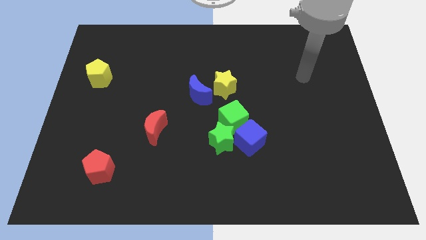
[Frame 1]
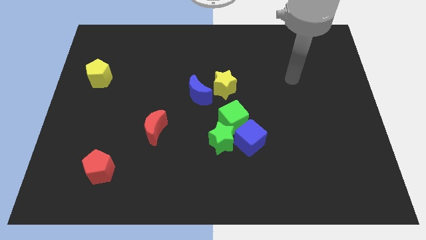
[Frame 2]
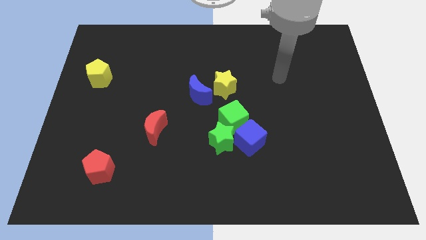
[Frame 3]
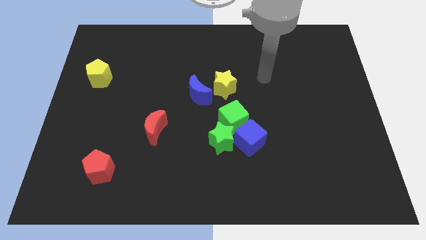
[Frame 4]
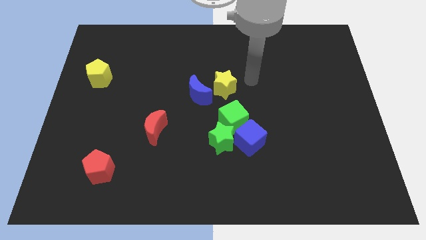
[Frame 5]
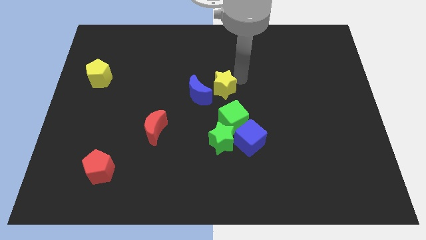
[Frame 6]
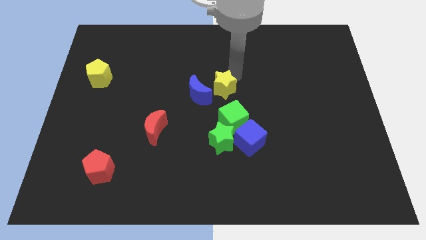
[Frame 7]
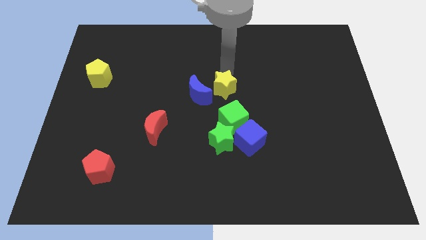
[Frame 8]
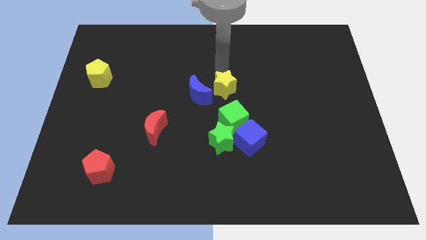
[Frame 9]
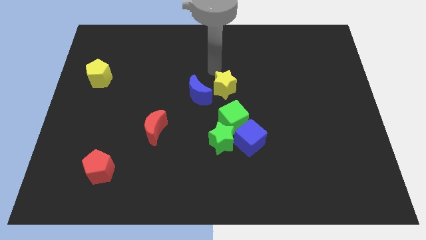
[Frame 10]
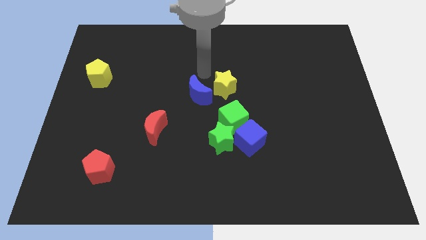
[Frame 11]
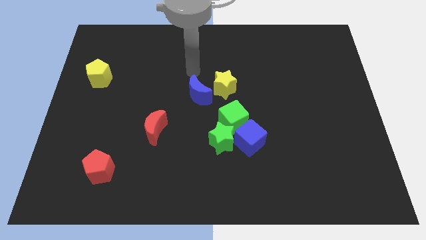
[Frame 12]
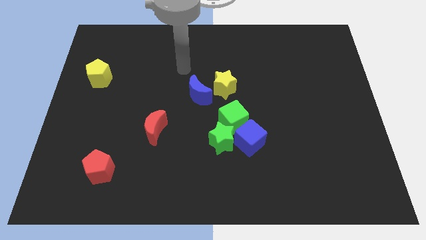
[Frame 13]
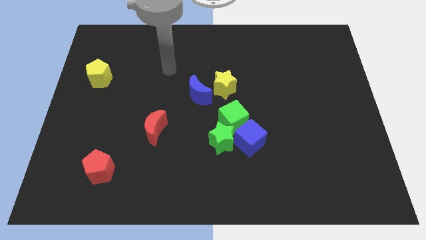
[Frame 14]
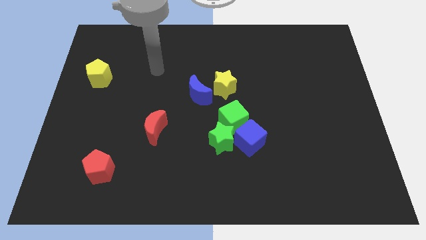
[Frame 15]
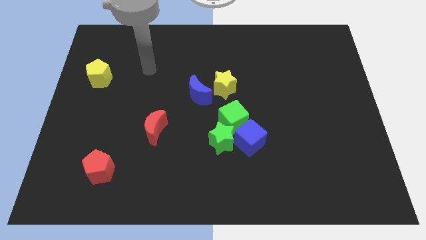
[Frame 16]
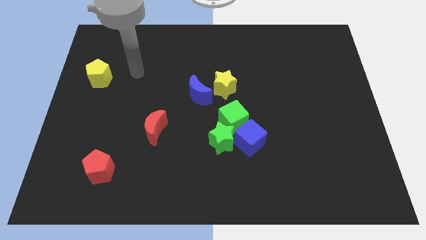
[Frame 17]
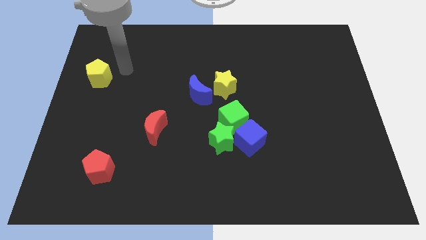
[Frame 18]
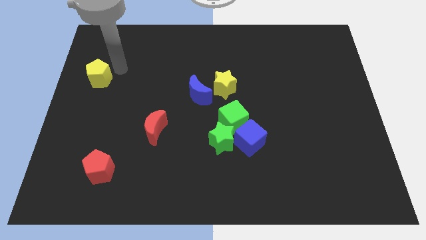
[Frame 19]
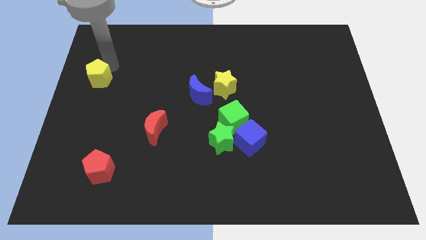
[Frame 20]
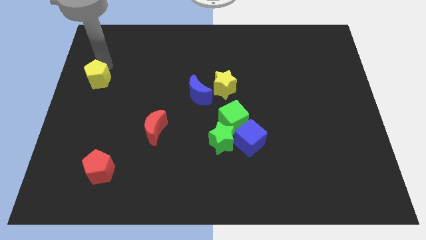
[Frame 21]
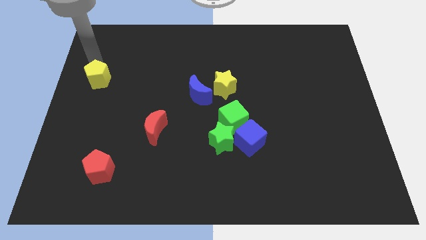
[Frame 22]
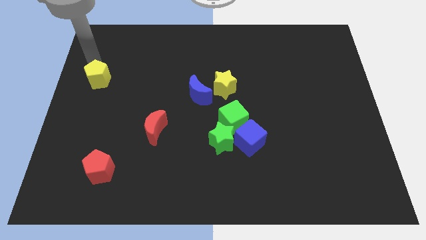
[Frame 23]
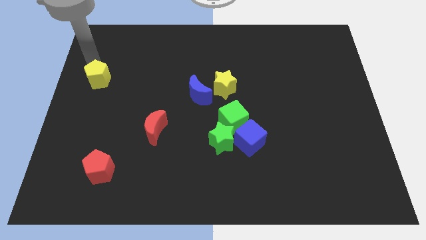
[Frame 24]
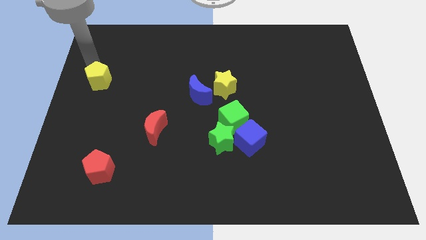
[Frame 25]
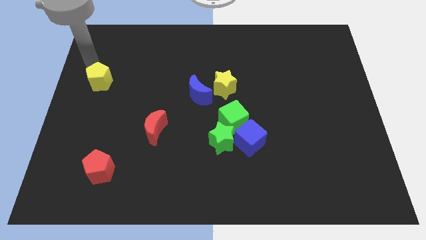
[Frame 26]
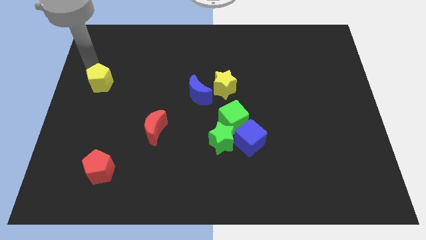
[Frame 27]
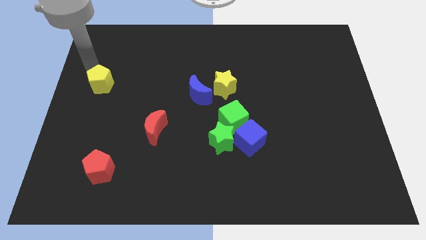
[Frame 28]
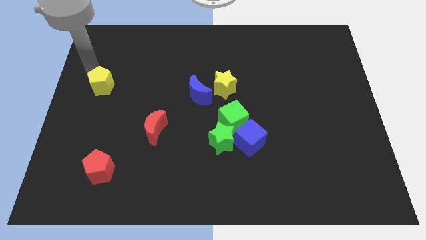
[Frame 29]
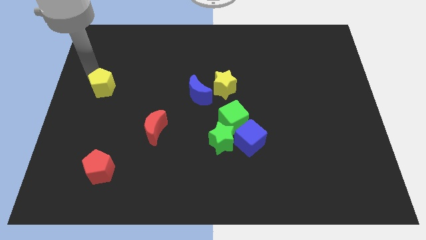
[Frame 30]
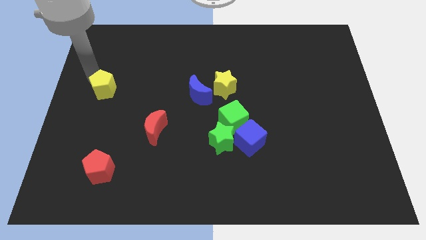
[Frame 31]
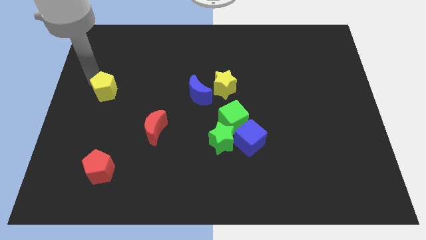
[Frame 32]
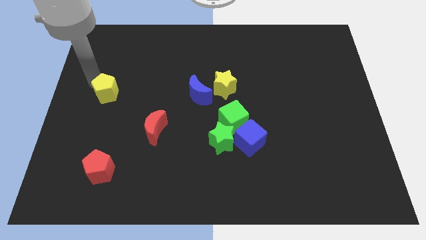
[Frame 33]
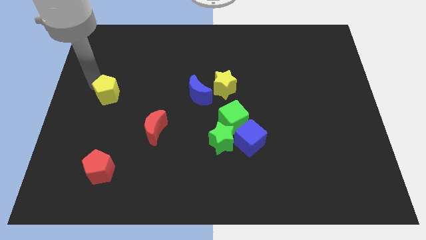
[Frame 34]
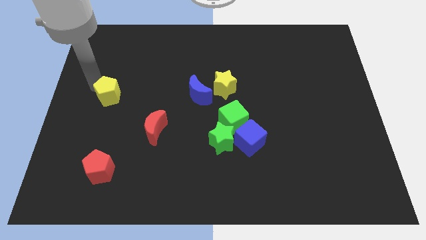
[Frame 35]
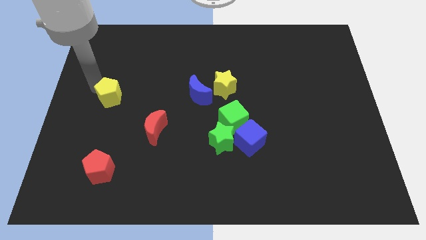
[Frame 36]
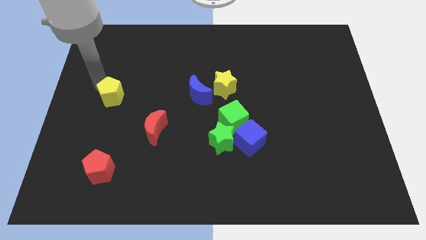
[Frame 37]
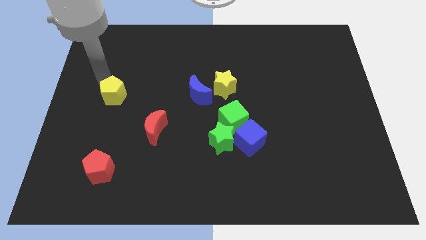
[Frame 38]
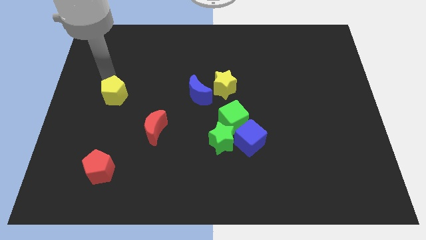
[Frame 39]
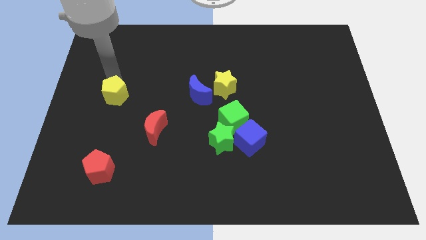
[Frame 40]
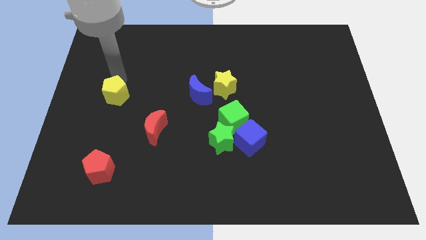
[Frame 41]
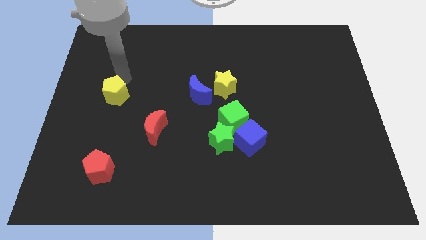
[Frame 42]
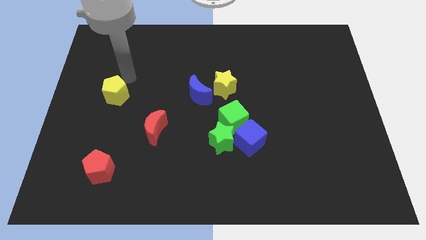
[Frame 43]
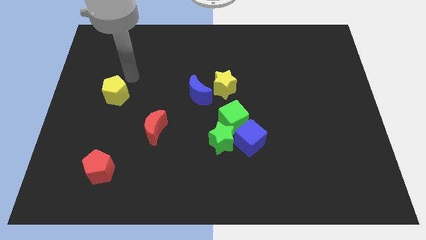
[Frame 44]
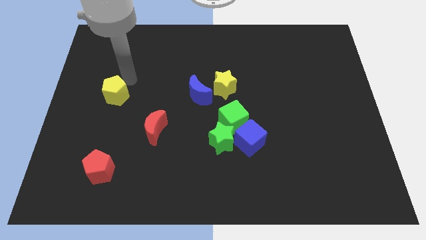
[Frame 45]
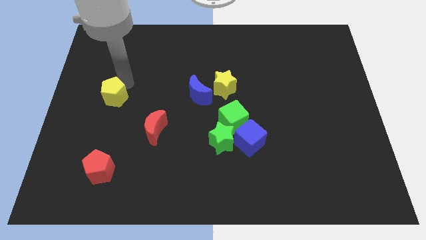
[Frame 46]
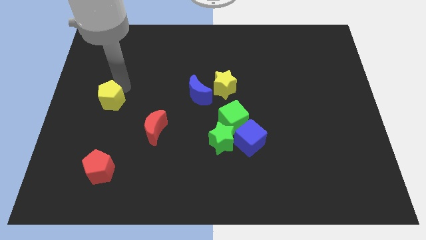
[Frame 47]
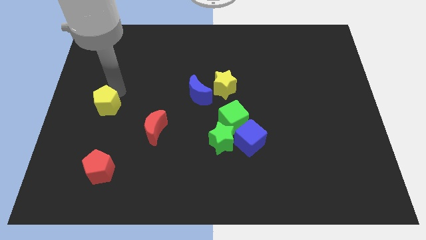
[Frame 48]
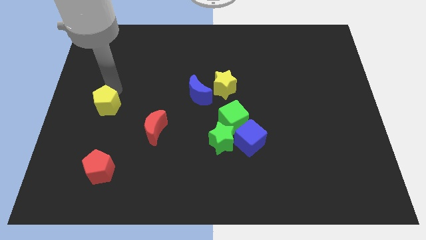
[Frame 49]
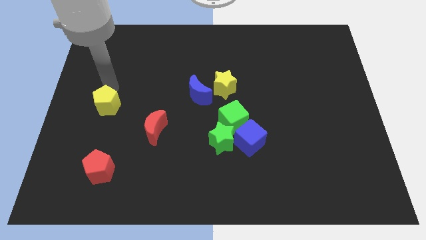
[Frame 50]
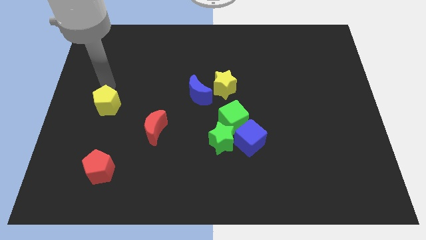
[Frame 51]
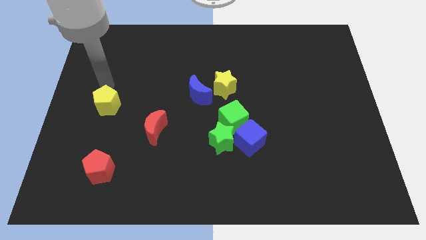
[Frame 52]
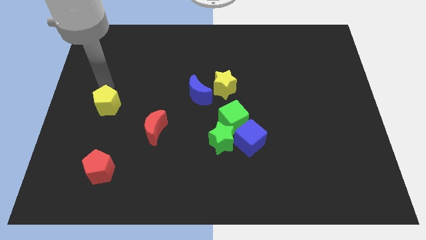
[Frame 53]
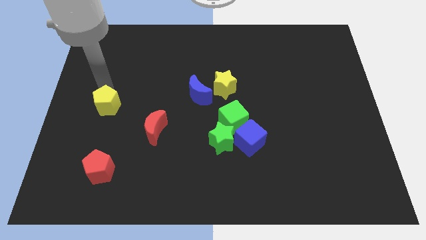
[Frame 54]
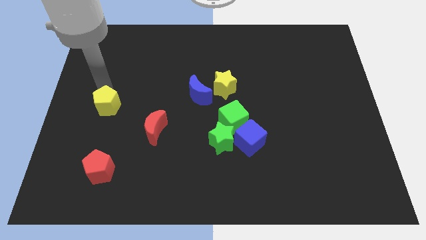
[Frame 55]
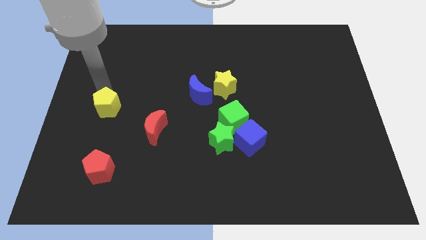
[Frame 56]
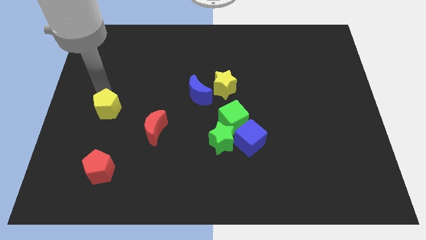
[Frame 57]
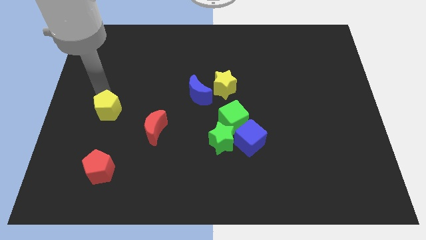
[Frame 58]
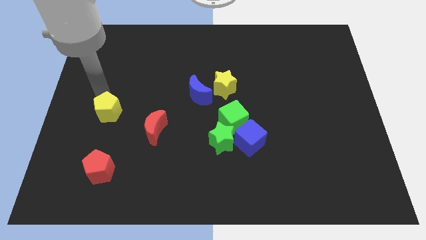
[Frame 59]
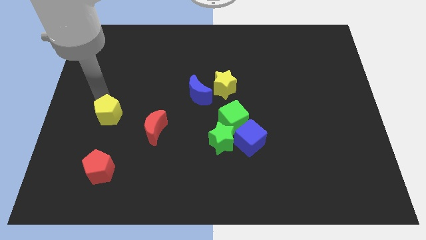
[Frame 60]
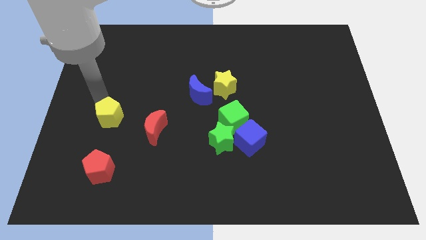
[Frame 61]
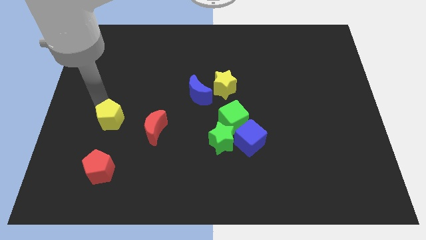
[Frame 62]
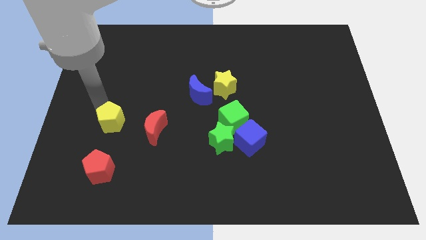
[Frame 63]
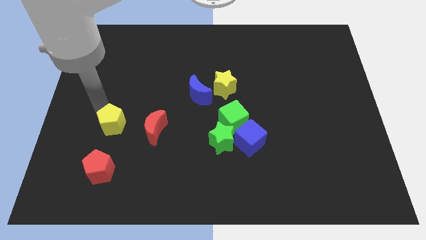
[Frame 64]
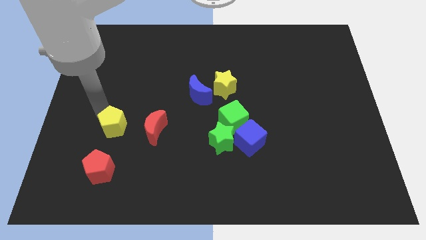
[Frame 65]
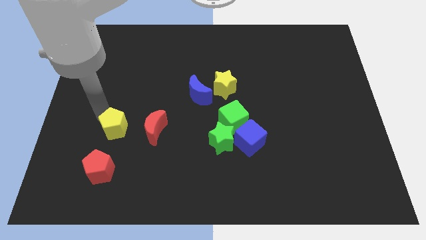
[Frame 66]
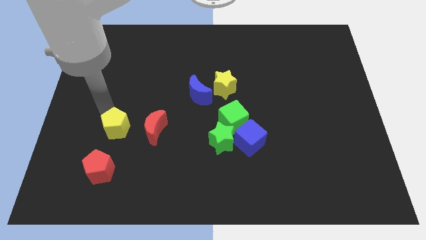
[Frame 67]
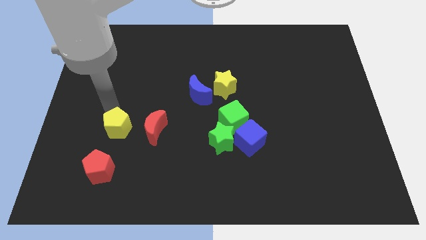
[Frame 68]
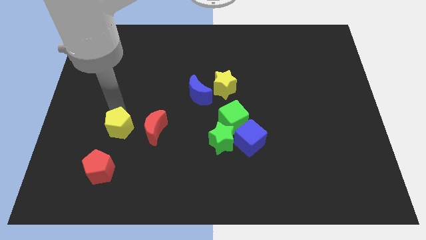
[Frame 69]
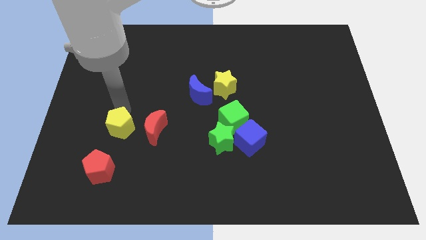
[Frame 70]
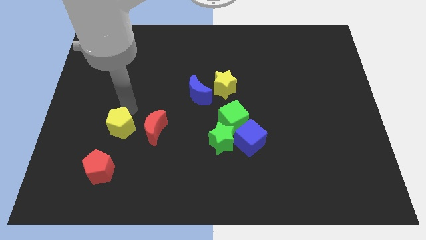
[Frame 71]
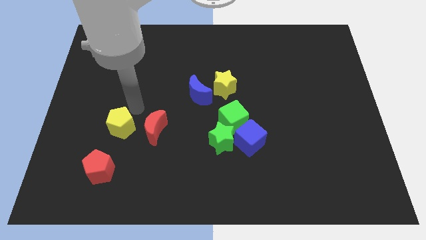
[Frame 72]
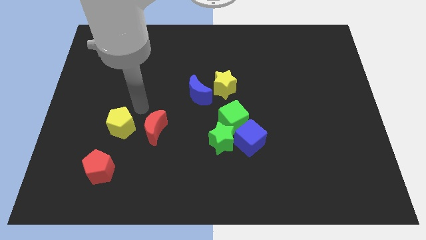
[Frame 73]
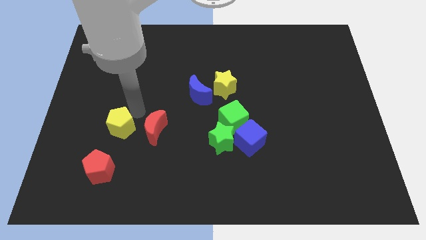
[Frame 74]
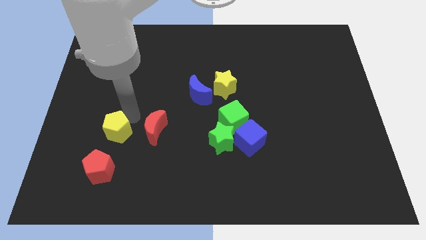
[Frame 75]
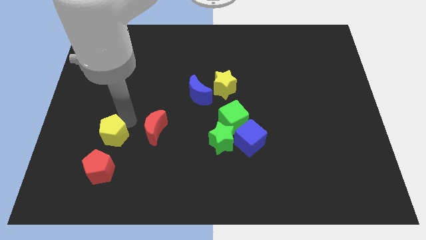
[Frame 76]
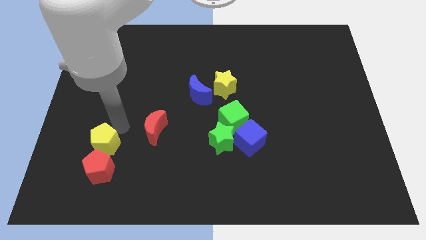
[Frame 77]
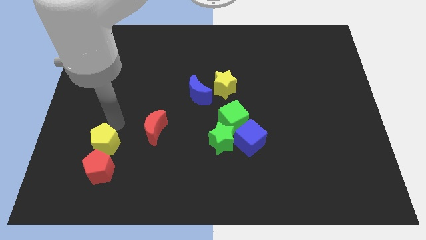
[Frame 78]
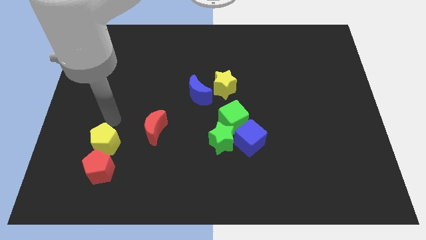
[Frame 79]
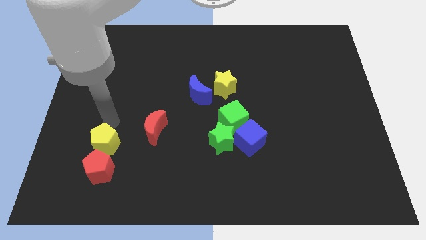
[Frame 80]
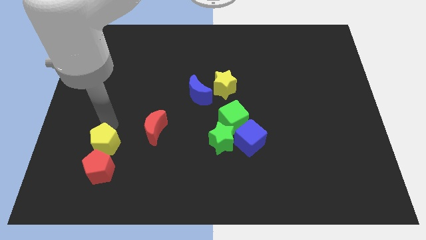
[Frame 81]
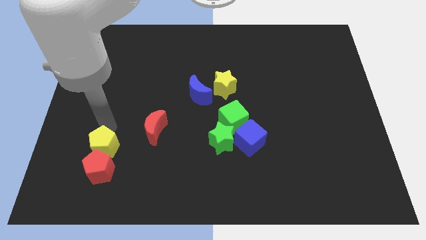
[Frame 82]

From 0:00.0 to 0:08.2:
slide the yellow pentagon to the red pentagon
